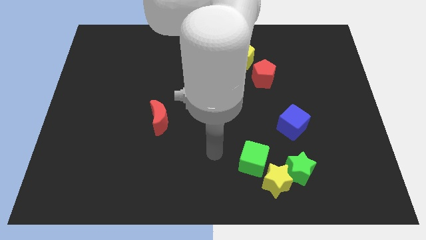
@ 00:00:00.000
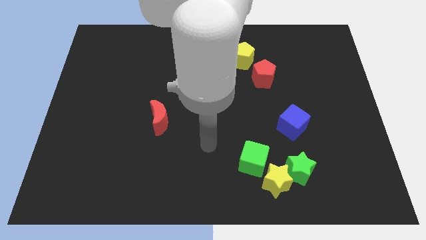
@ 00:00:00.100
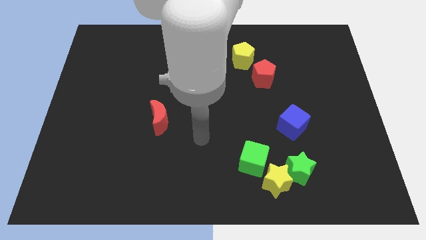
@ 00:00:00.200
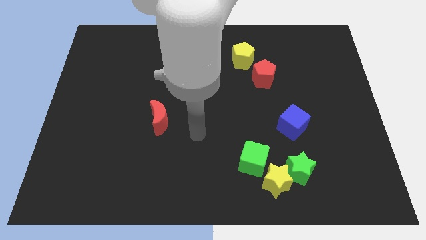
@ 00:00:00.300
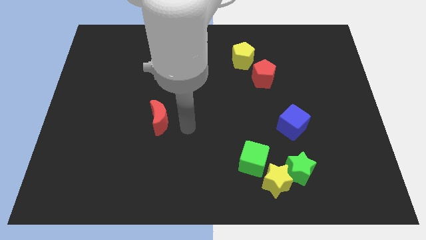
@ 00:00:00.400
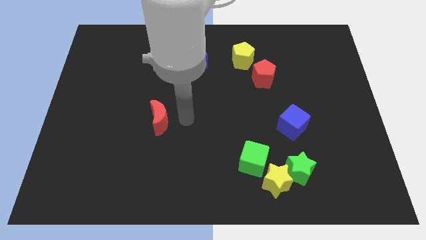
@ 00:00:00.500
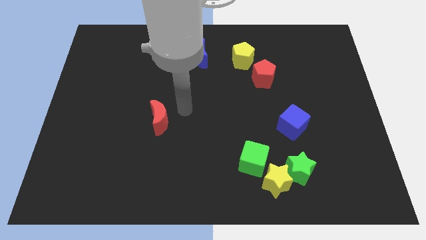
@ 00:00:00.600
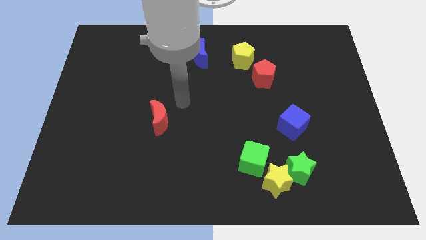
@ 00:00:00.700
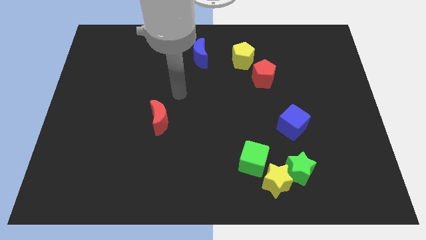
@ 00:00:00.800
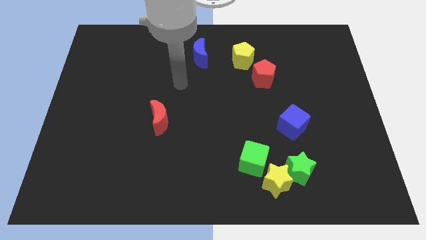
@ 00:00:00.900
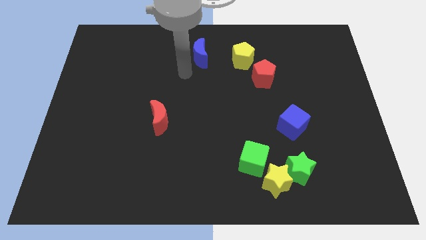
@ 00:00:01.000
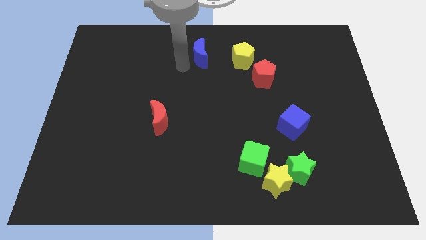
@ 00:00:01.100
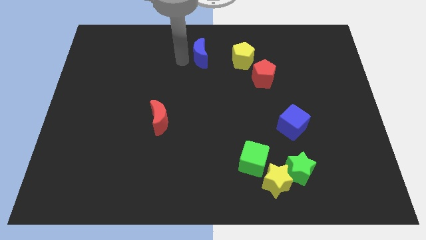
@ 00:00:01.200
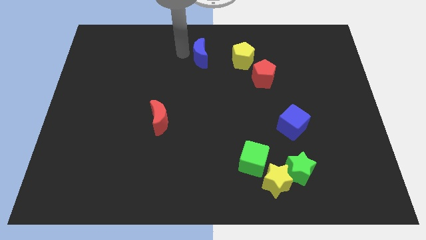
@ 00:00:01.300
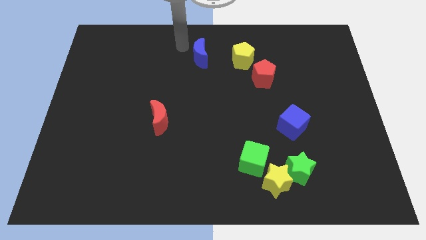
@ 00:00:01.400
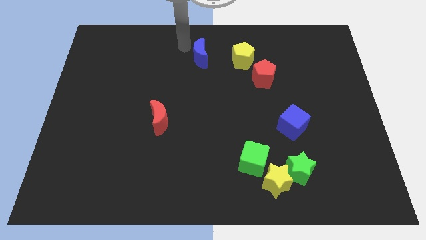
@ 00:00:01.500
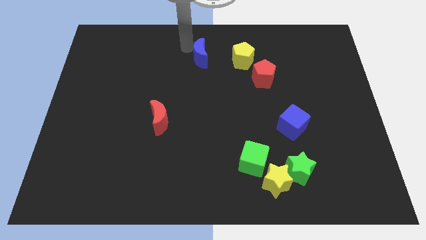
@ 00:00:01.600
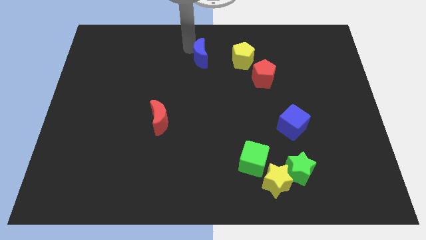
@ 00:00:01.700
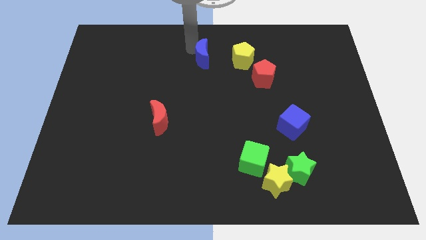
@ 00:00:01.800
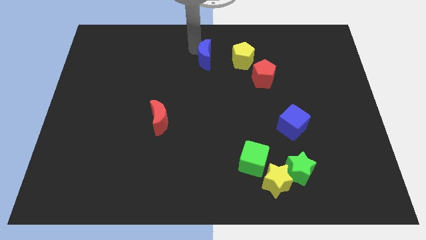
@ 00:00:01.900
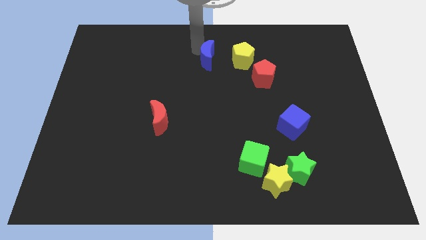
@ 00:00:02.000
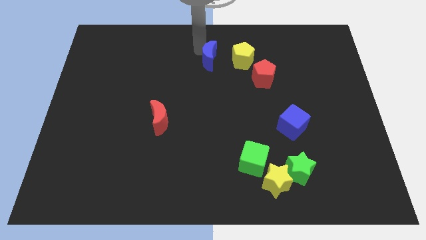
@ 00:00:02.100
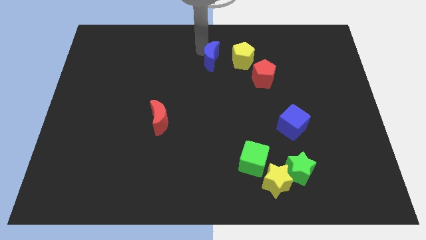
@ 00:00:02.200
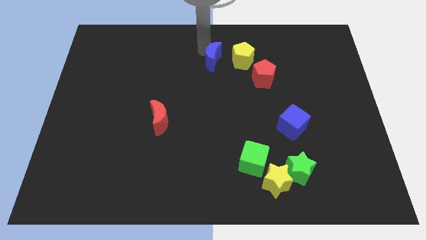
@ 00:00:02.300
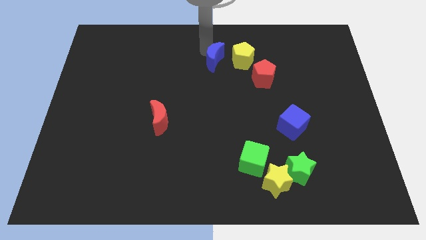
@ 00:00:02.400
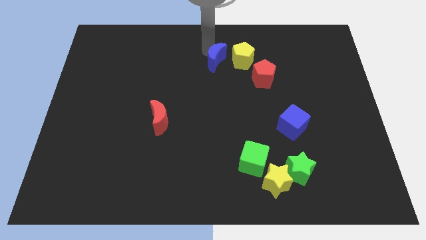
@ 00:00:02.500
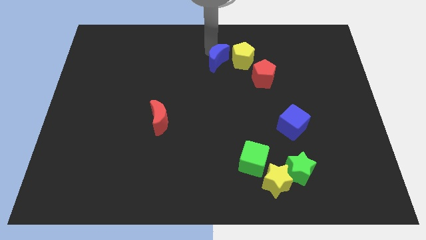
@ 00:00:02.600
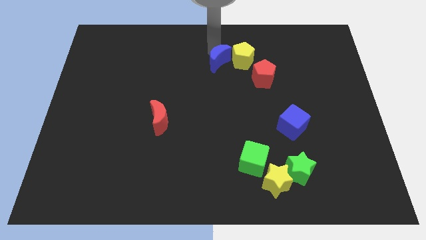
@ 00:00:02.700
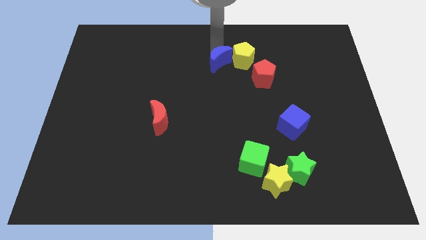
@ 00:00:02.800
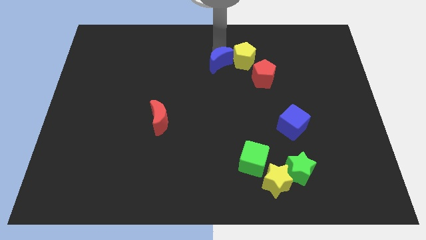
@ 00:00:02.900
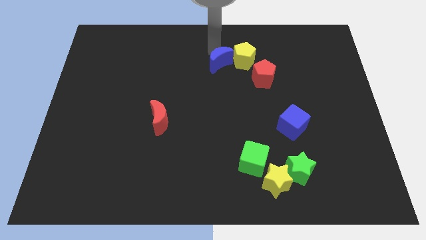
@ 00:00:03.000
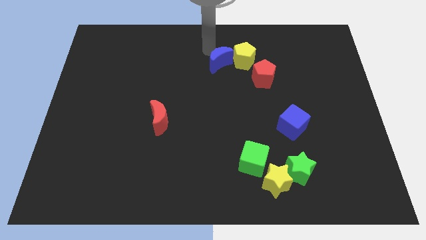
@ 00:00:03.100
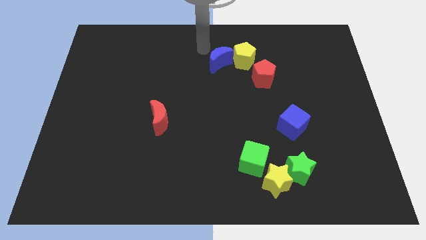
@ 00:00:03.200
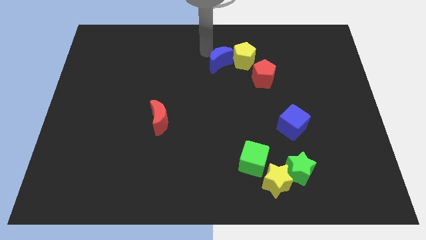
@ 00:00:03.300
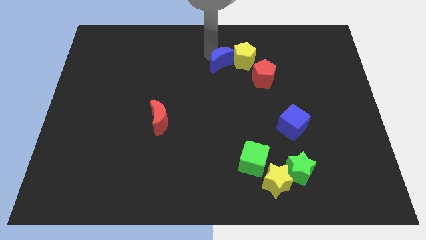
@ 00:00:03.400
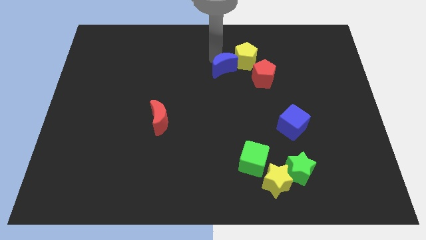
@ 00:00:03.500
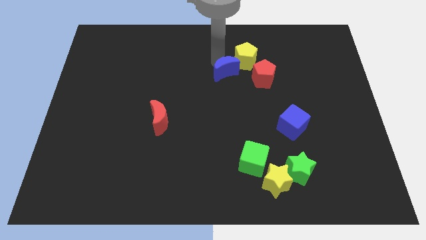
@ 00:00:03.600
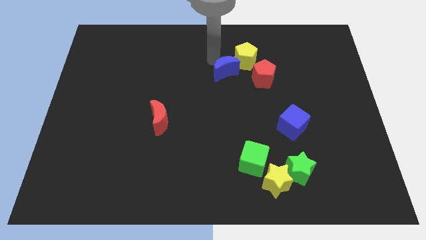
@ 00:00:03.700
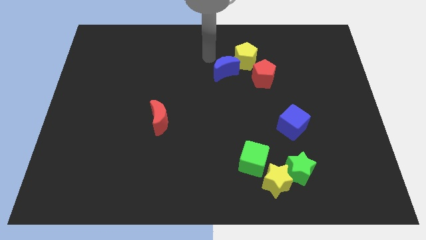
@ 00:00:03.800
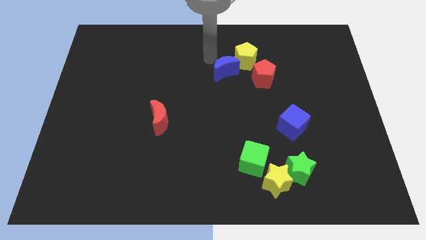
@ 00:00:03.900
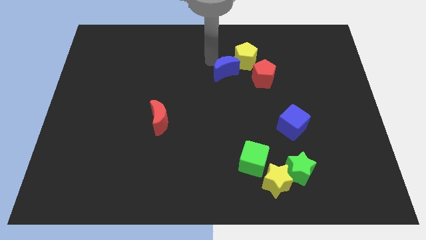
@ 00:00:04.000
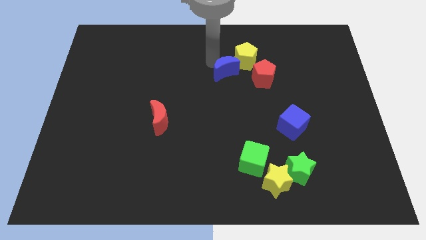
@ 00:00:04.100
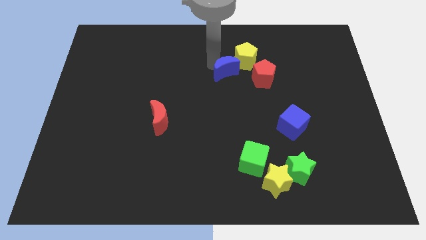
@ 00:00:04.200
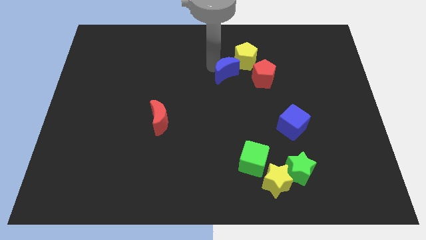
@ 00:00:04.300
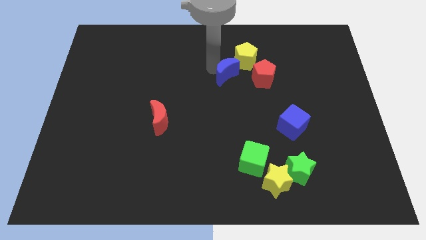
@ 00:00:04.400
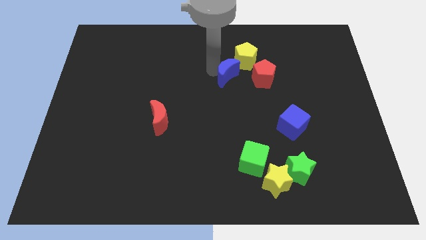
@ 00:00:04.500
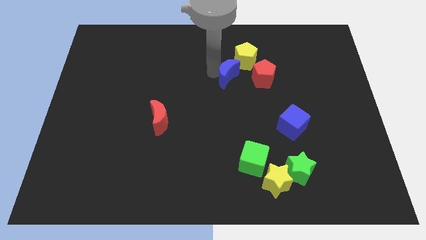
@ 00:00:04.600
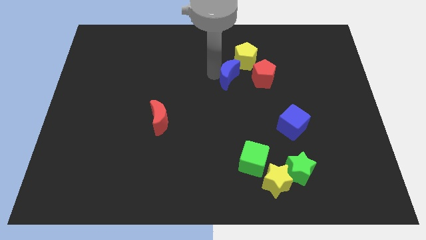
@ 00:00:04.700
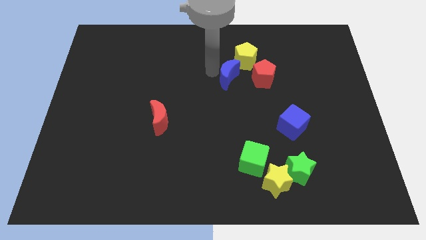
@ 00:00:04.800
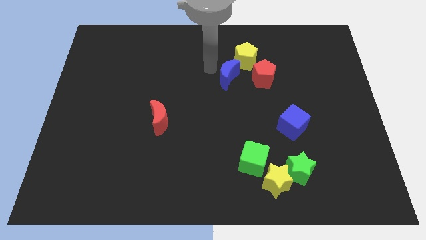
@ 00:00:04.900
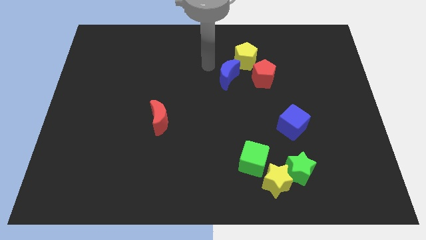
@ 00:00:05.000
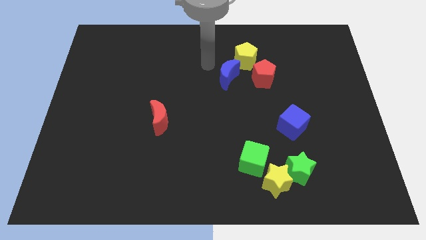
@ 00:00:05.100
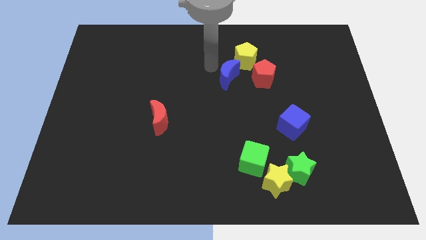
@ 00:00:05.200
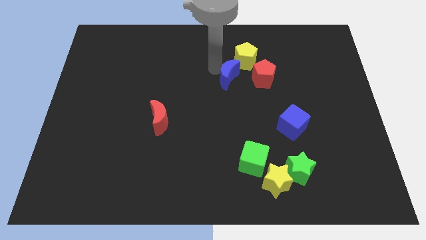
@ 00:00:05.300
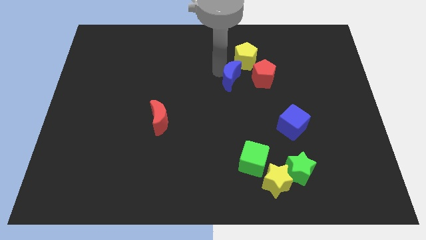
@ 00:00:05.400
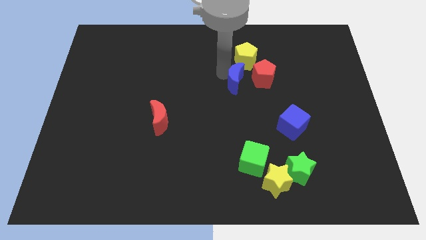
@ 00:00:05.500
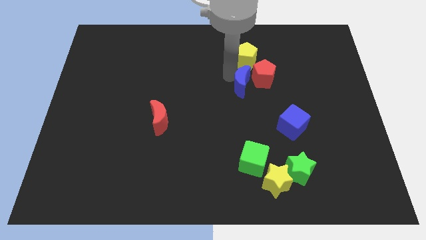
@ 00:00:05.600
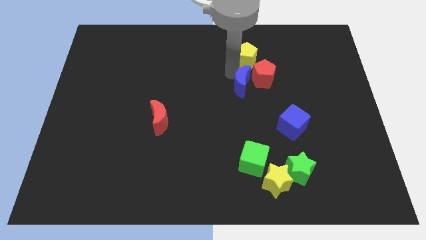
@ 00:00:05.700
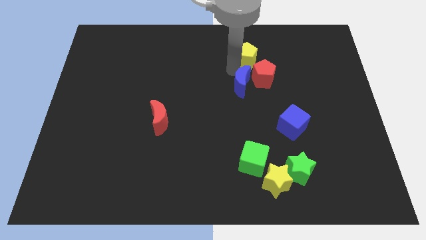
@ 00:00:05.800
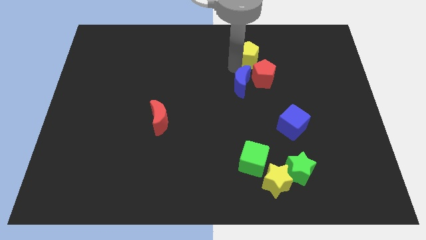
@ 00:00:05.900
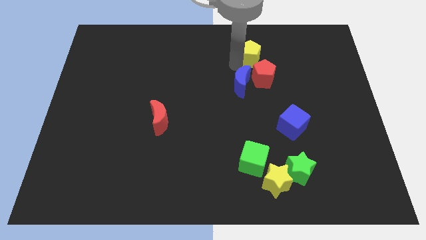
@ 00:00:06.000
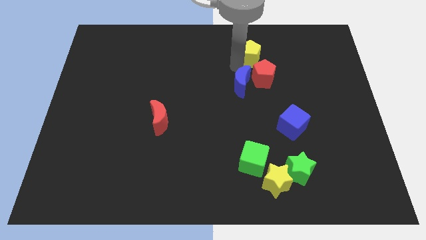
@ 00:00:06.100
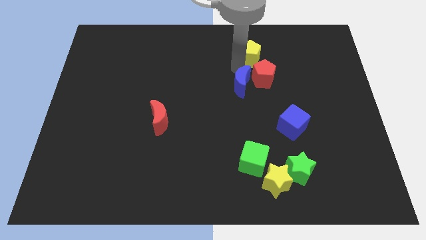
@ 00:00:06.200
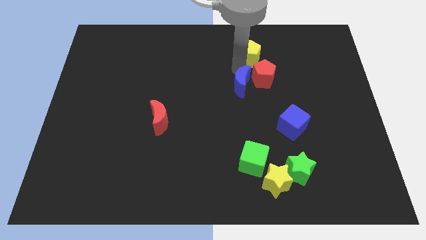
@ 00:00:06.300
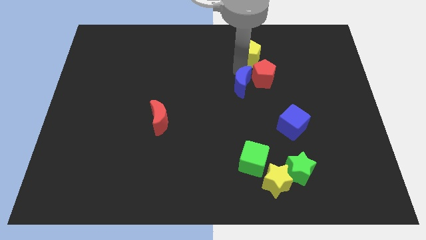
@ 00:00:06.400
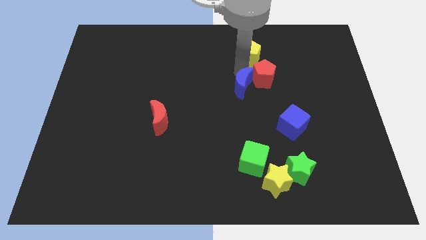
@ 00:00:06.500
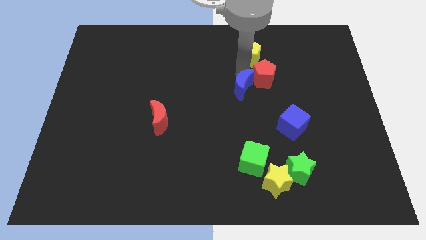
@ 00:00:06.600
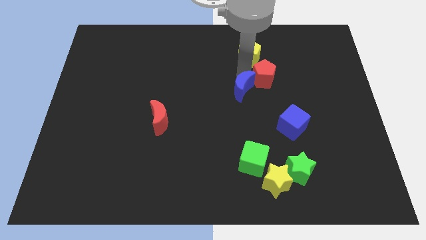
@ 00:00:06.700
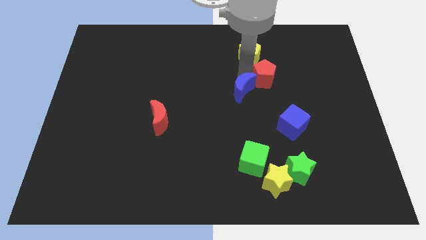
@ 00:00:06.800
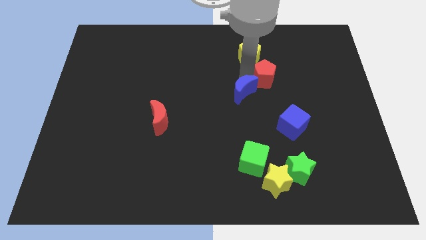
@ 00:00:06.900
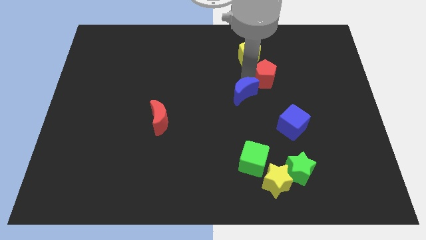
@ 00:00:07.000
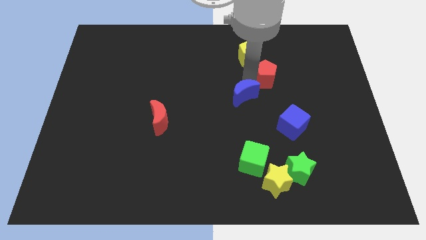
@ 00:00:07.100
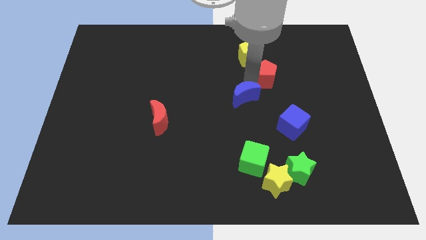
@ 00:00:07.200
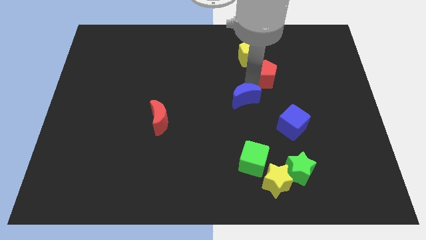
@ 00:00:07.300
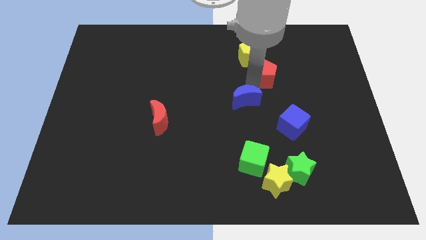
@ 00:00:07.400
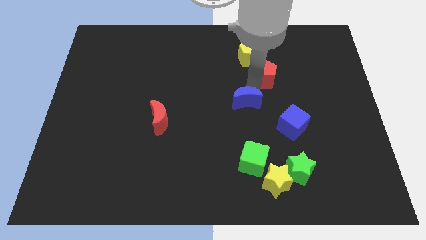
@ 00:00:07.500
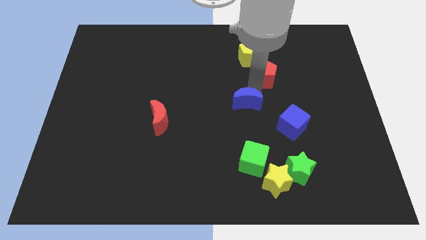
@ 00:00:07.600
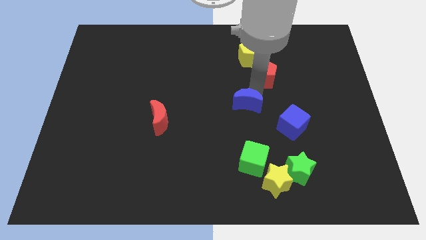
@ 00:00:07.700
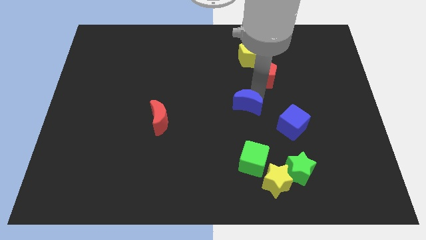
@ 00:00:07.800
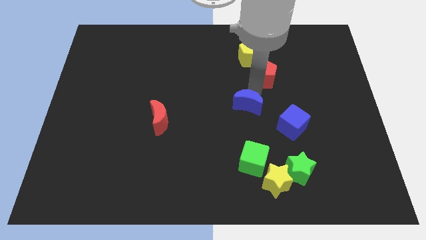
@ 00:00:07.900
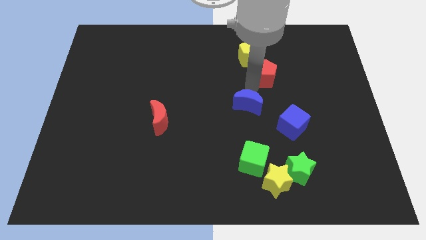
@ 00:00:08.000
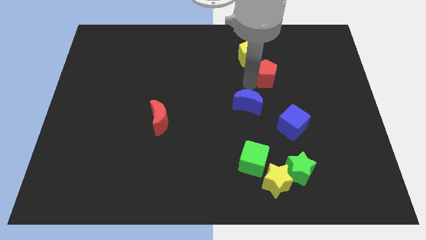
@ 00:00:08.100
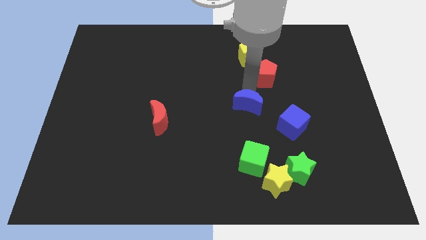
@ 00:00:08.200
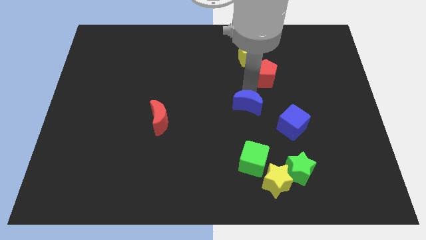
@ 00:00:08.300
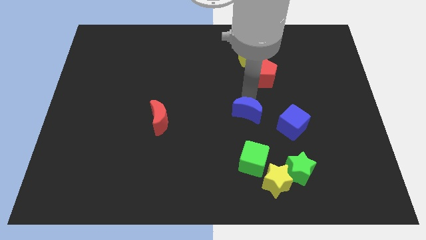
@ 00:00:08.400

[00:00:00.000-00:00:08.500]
put the blue moon to the left of the blue cube
